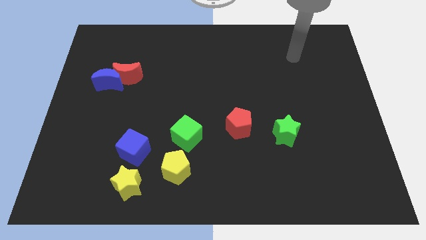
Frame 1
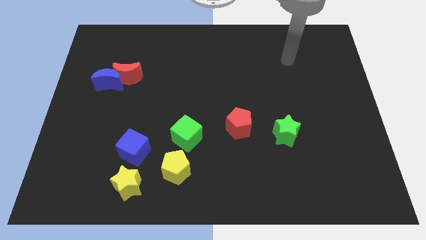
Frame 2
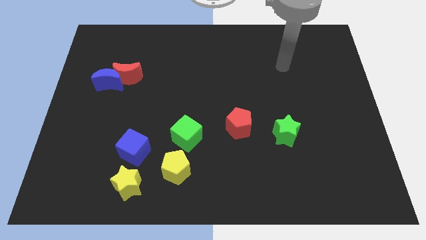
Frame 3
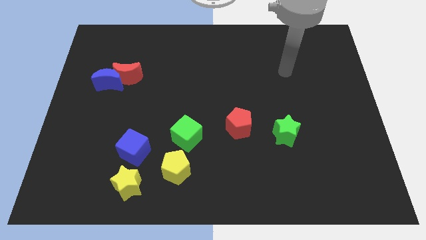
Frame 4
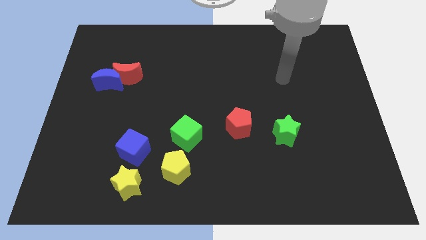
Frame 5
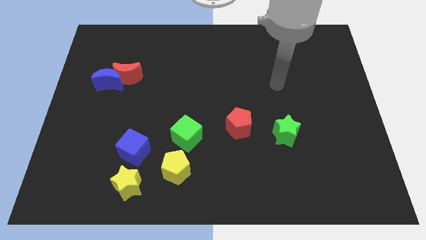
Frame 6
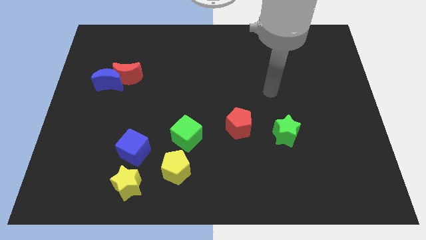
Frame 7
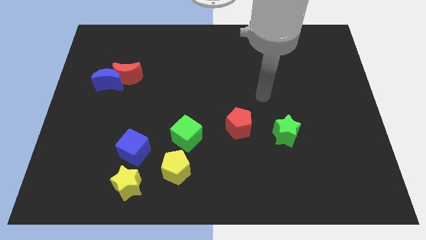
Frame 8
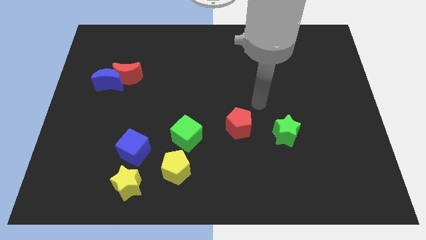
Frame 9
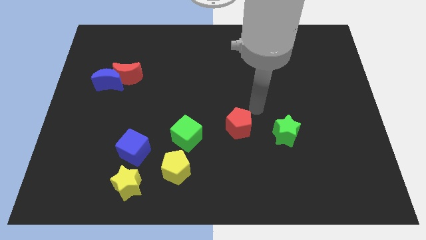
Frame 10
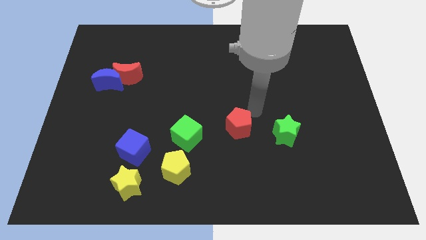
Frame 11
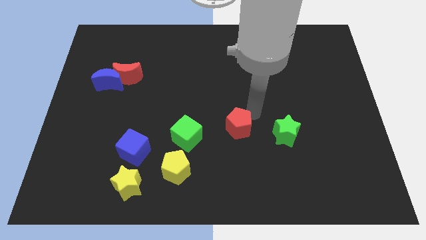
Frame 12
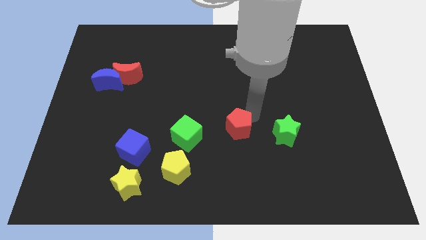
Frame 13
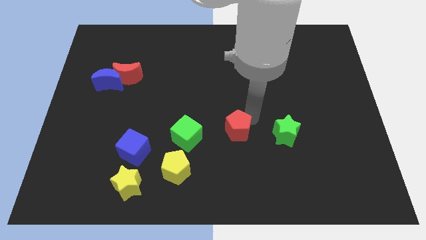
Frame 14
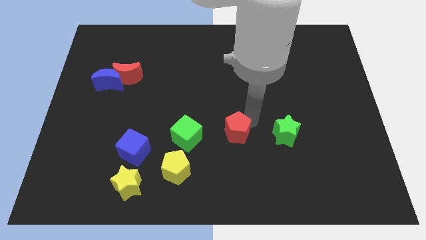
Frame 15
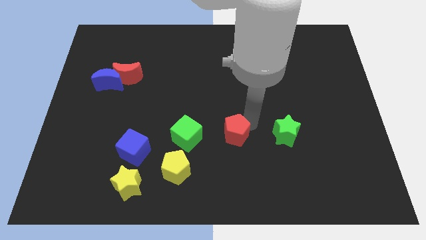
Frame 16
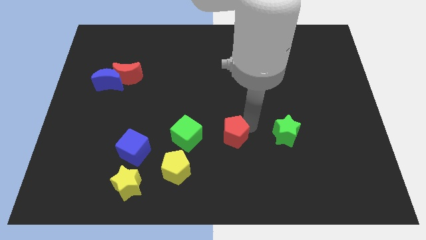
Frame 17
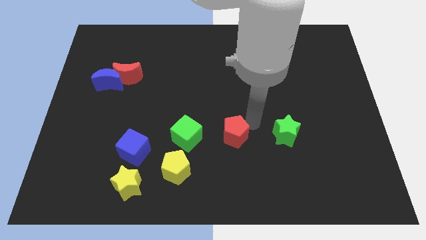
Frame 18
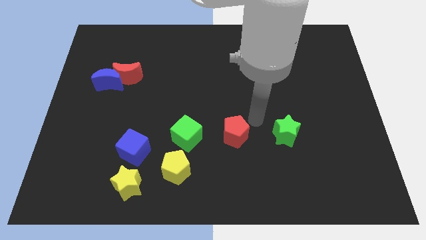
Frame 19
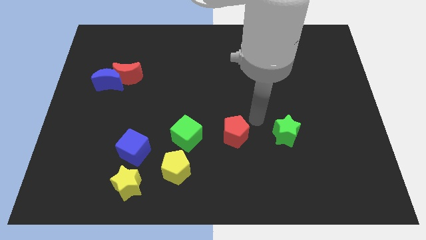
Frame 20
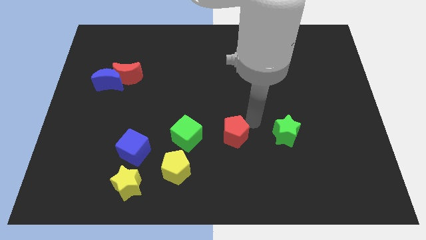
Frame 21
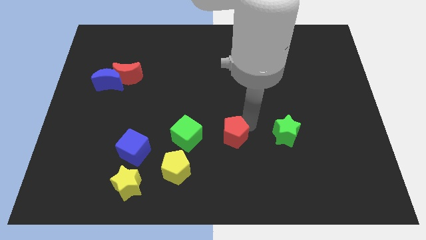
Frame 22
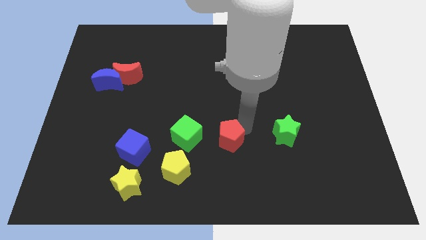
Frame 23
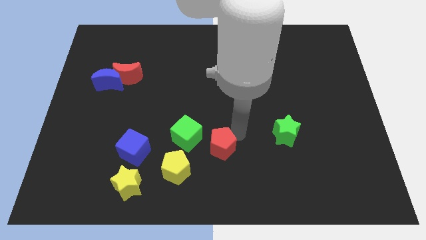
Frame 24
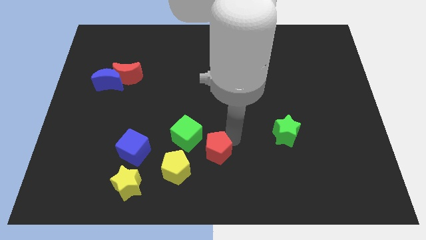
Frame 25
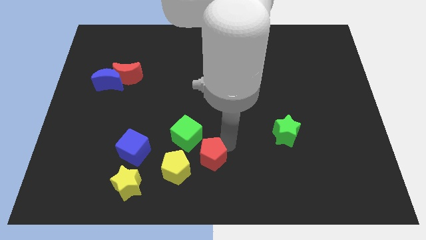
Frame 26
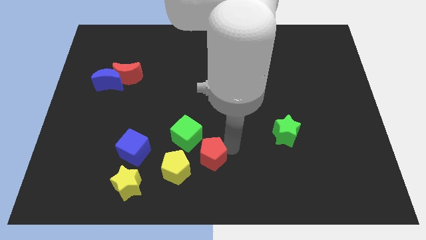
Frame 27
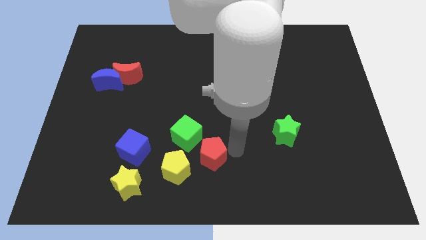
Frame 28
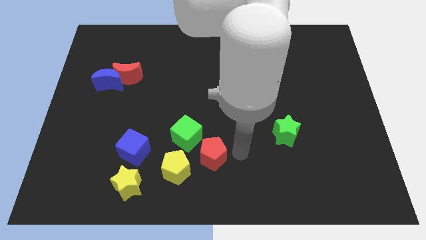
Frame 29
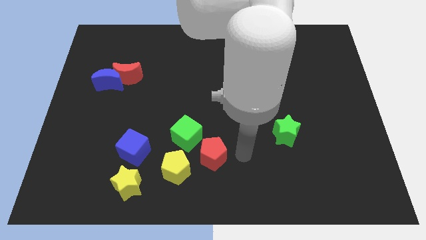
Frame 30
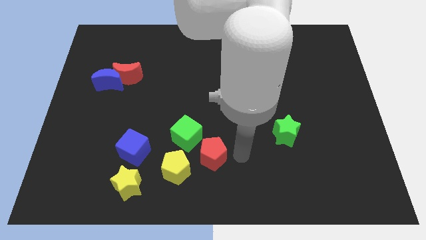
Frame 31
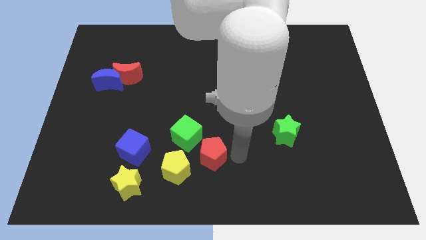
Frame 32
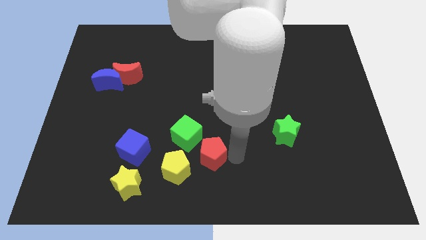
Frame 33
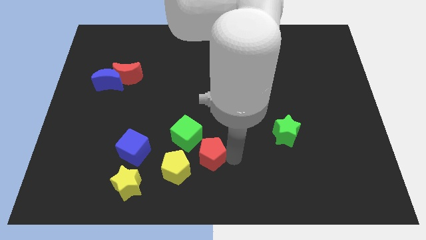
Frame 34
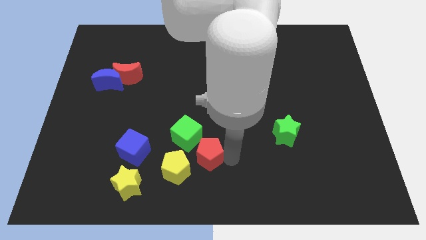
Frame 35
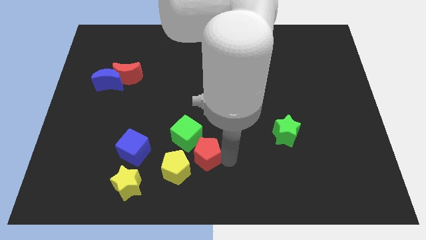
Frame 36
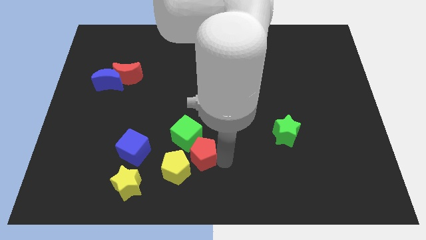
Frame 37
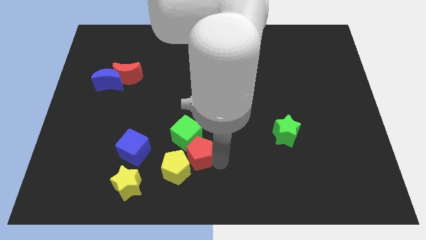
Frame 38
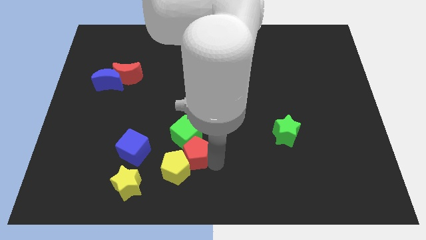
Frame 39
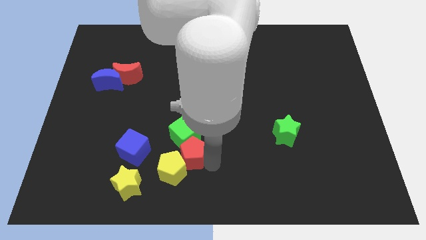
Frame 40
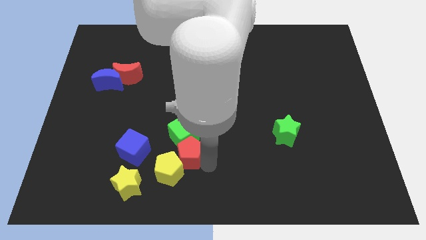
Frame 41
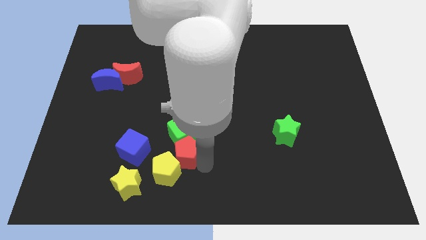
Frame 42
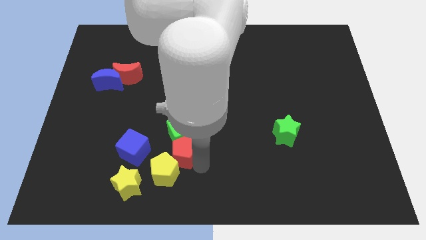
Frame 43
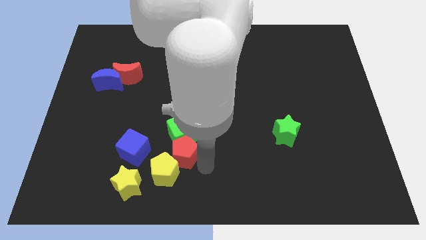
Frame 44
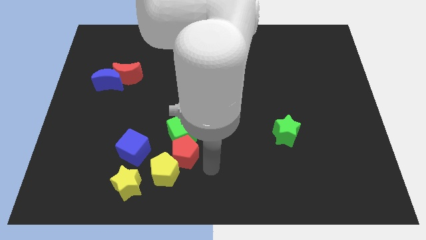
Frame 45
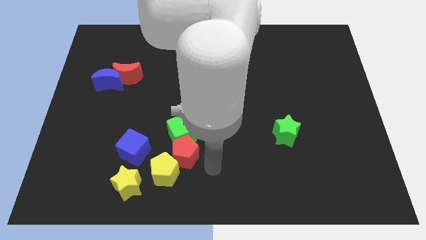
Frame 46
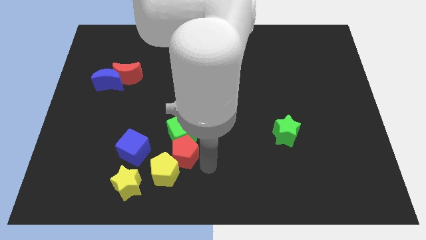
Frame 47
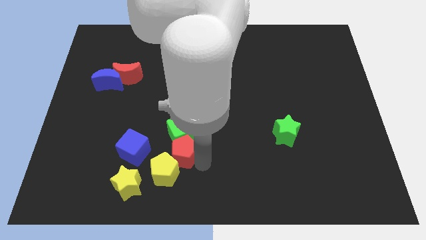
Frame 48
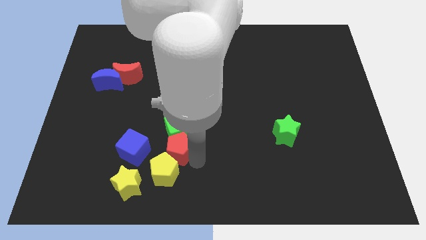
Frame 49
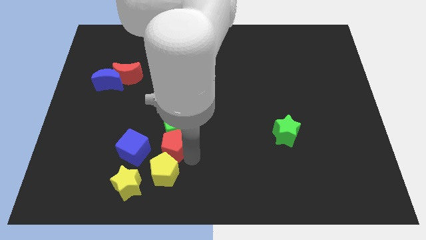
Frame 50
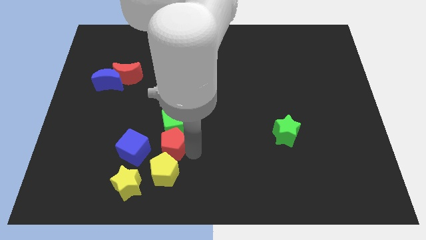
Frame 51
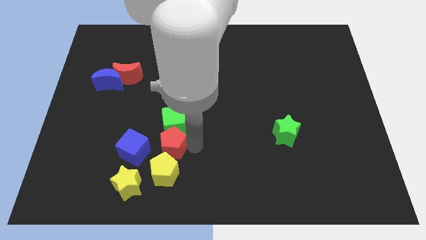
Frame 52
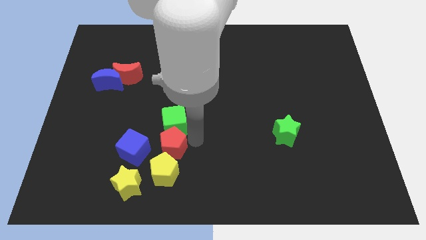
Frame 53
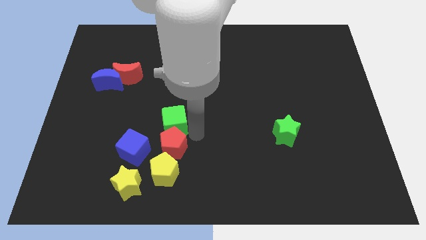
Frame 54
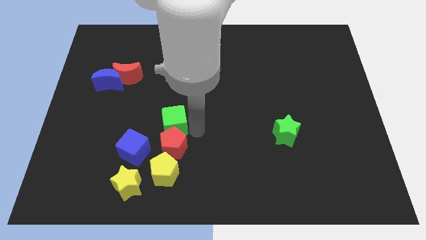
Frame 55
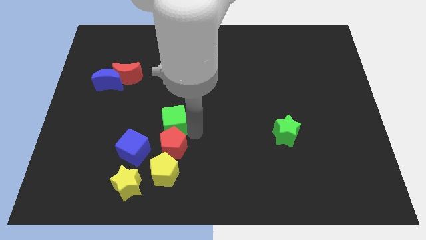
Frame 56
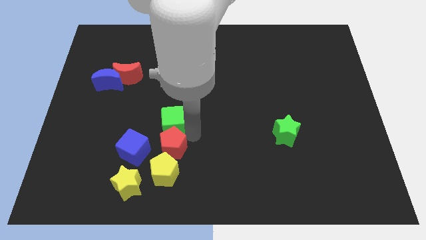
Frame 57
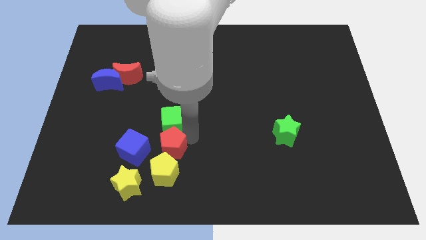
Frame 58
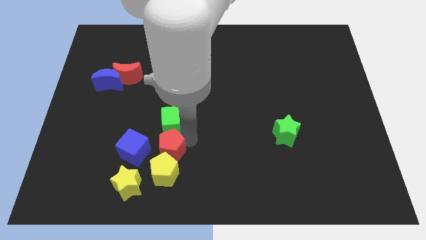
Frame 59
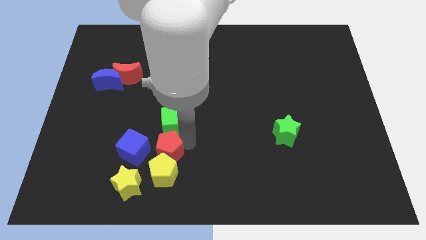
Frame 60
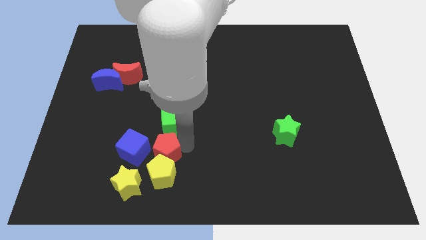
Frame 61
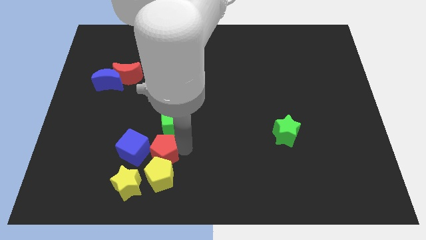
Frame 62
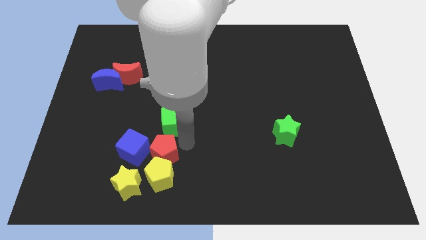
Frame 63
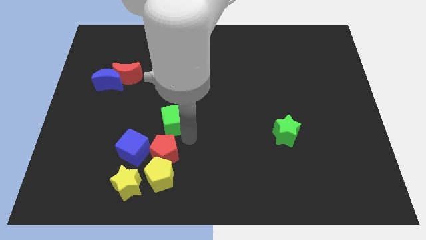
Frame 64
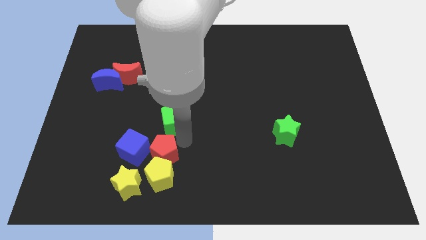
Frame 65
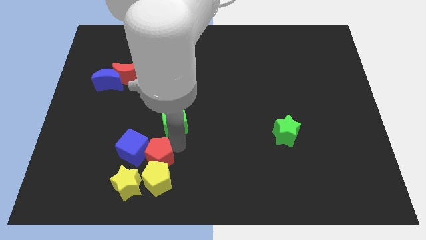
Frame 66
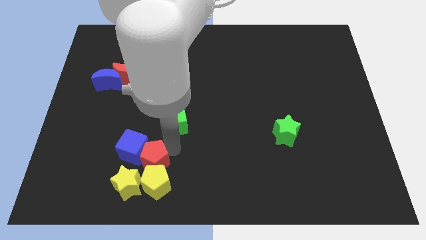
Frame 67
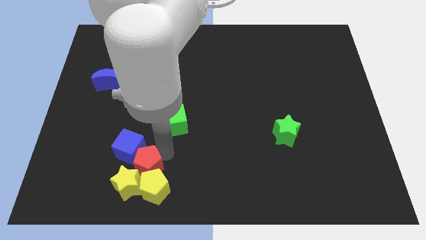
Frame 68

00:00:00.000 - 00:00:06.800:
put the red pentagon to the yellow star

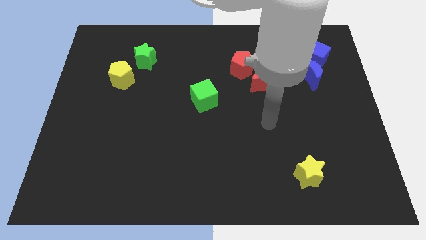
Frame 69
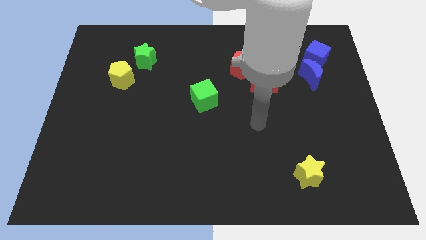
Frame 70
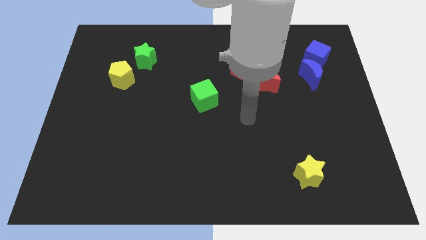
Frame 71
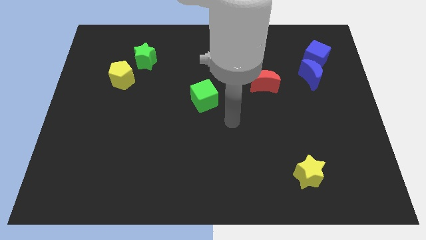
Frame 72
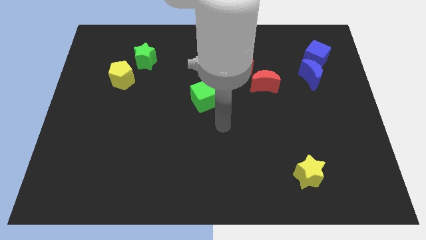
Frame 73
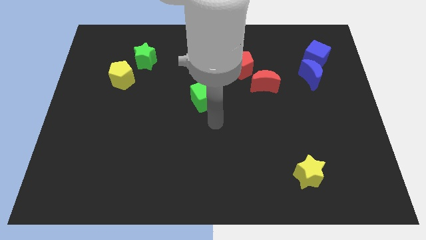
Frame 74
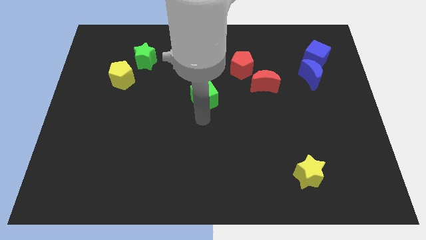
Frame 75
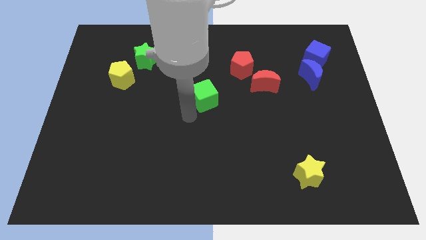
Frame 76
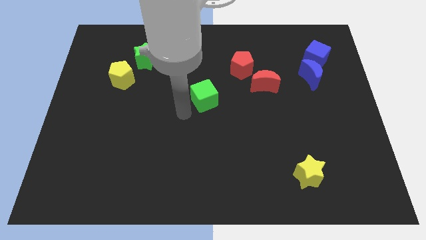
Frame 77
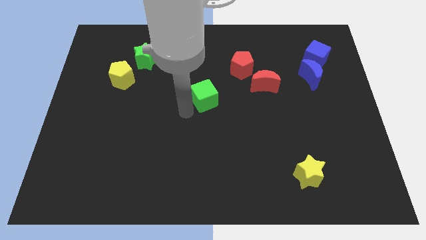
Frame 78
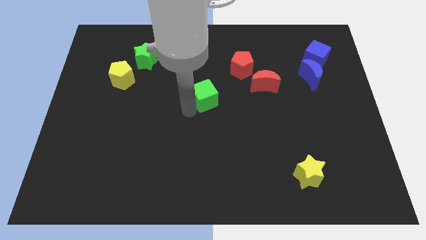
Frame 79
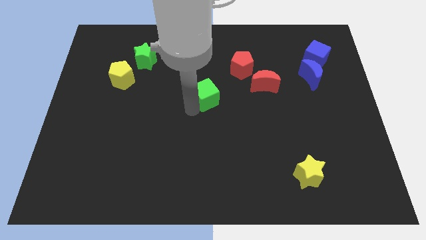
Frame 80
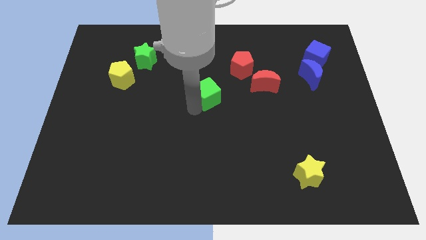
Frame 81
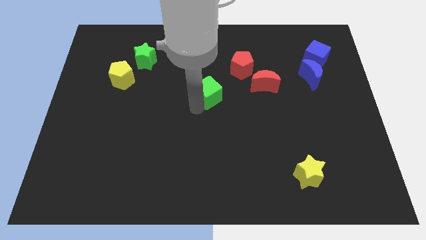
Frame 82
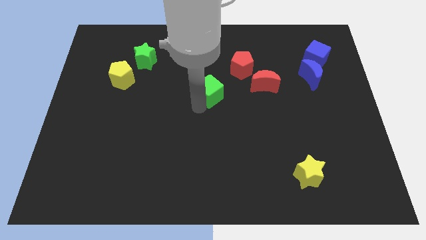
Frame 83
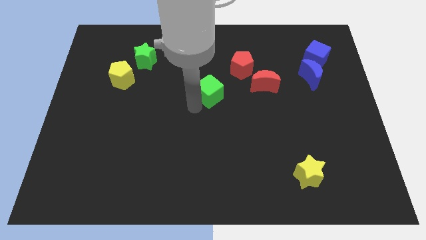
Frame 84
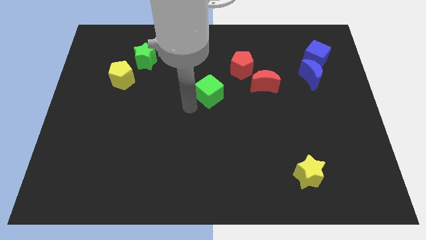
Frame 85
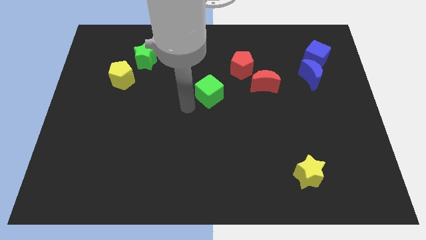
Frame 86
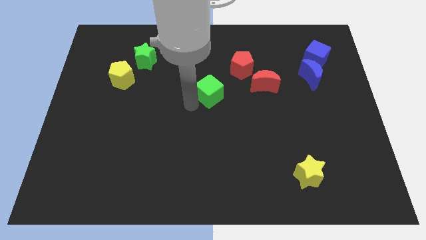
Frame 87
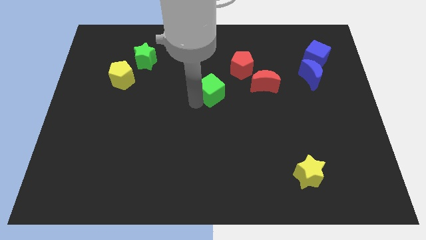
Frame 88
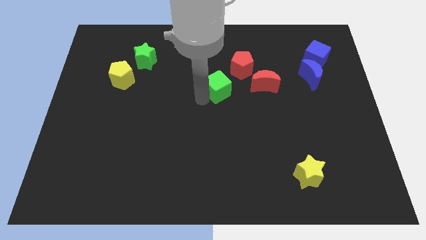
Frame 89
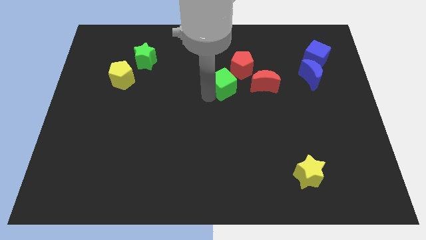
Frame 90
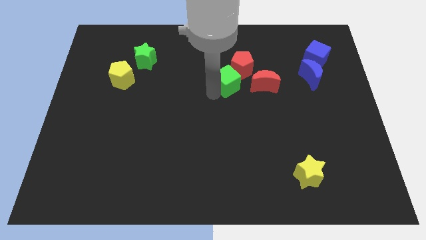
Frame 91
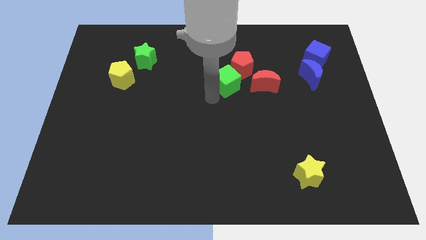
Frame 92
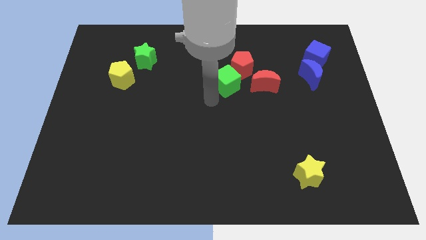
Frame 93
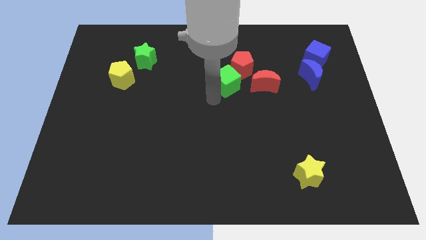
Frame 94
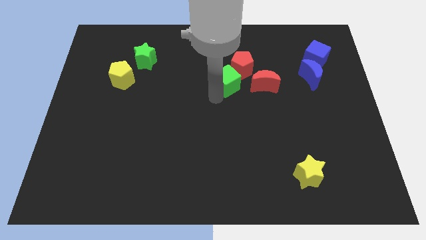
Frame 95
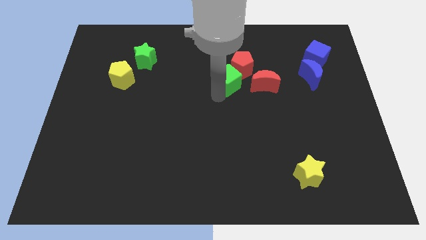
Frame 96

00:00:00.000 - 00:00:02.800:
put the green cube to the red pentagon
